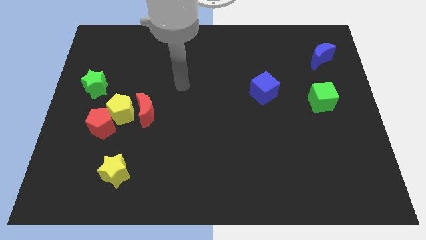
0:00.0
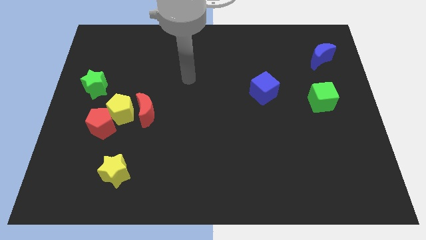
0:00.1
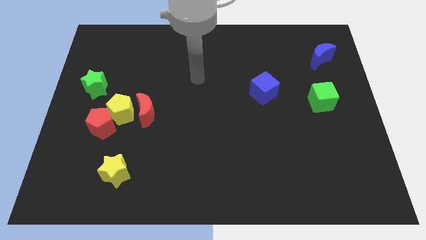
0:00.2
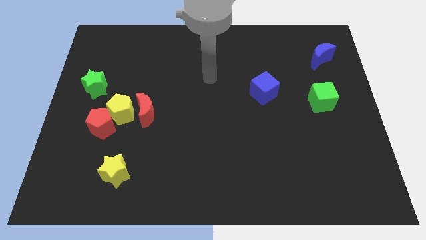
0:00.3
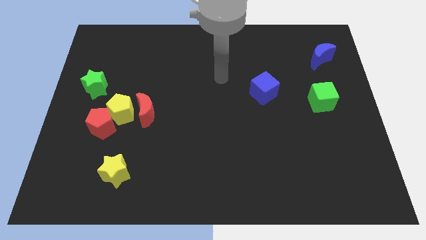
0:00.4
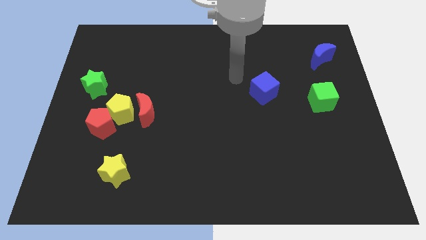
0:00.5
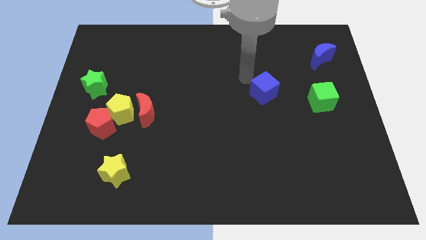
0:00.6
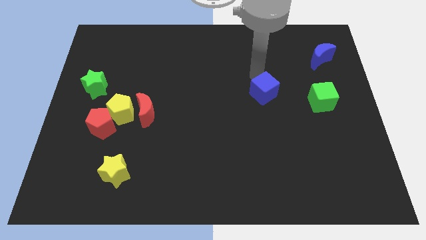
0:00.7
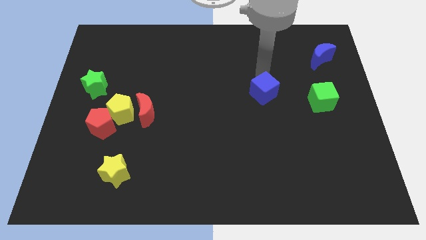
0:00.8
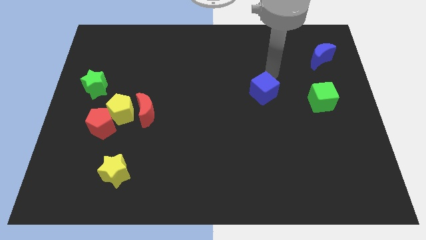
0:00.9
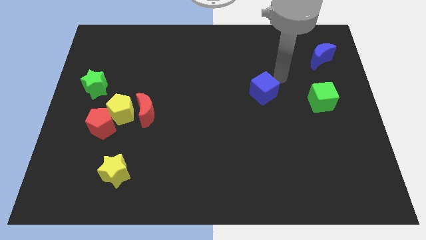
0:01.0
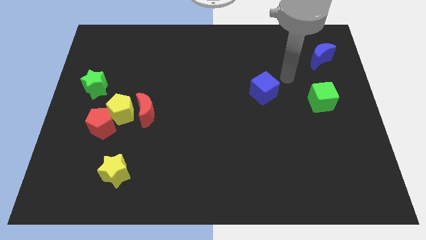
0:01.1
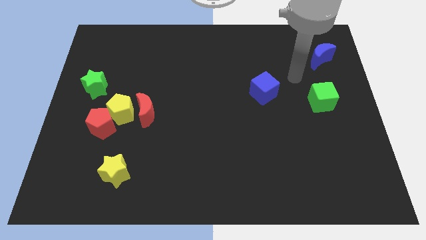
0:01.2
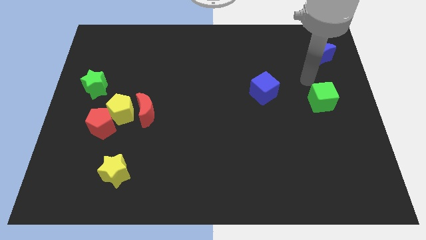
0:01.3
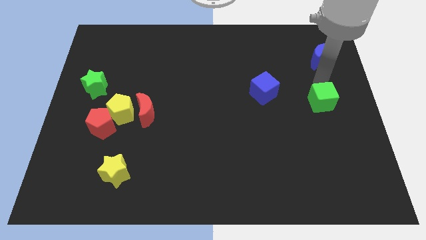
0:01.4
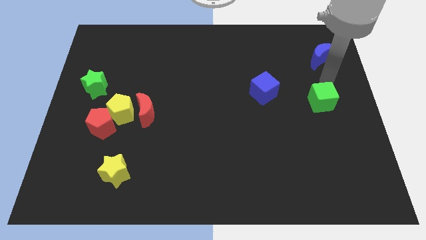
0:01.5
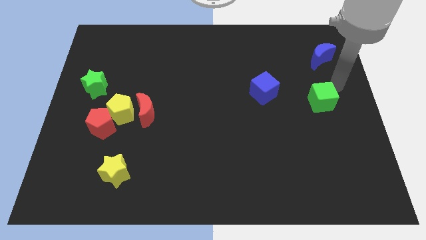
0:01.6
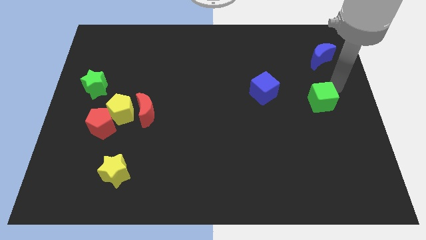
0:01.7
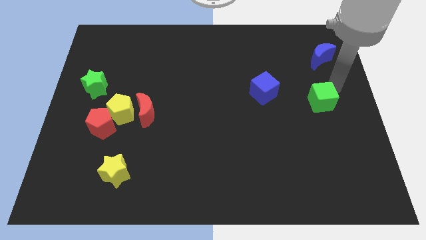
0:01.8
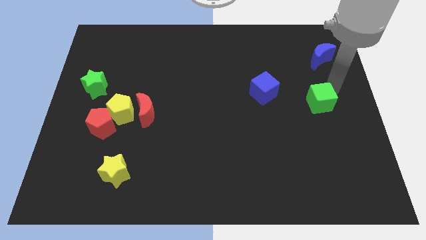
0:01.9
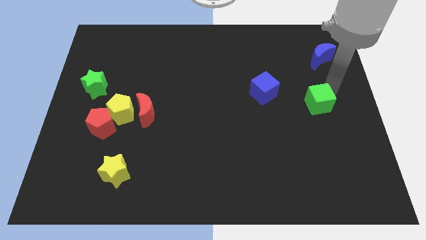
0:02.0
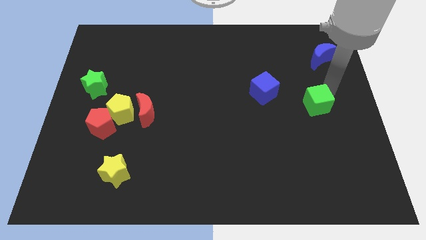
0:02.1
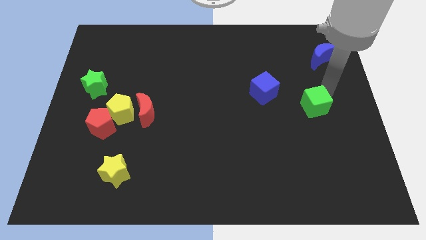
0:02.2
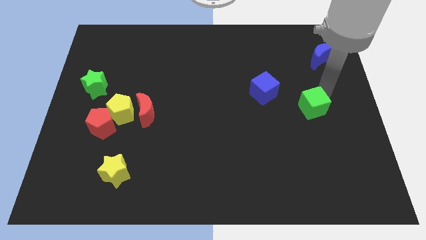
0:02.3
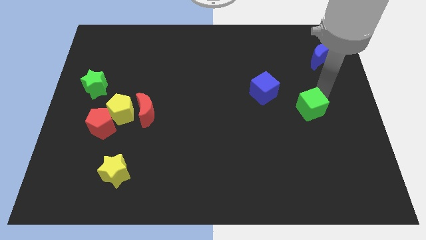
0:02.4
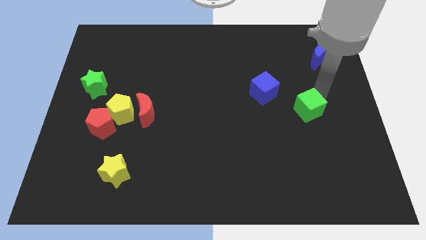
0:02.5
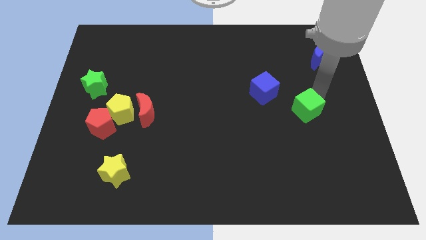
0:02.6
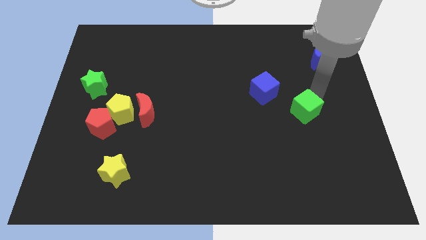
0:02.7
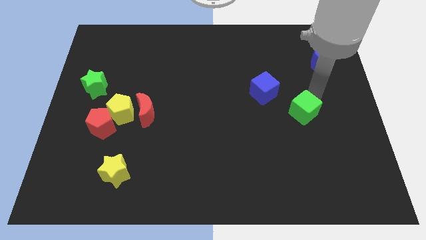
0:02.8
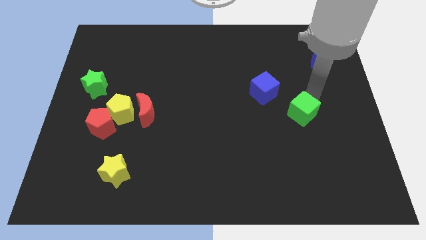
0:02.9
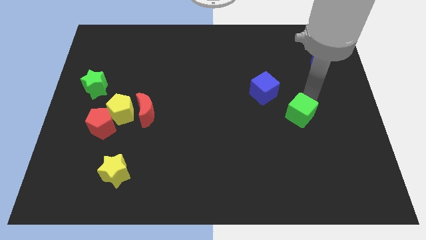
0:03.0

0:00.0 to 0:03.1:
slightly push the green cube downwards and left

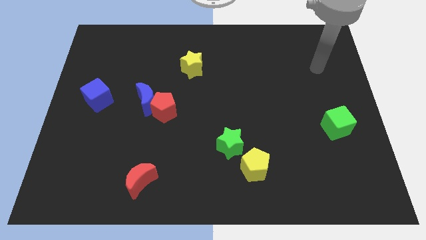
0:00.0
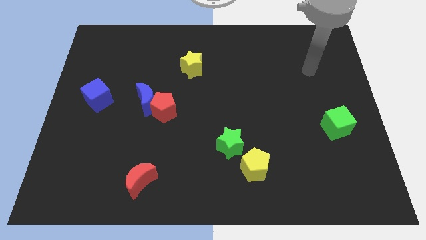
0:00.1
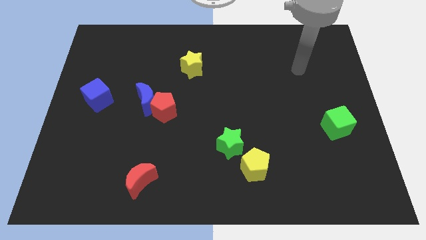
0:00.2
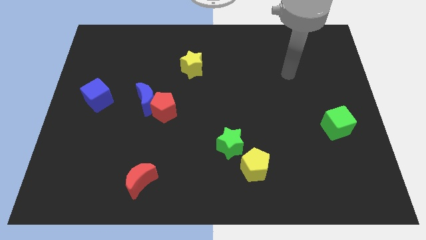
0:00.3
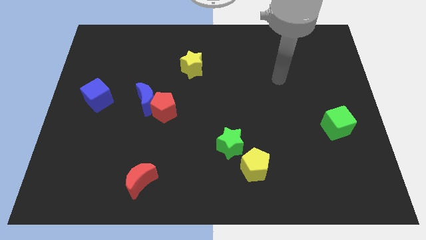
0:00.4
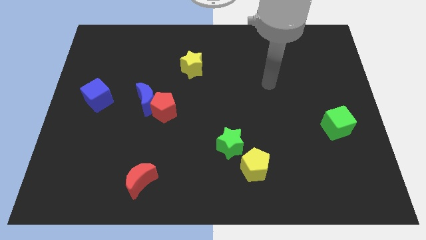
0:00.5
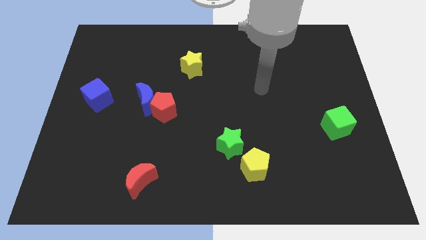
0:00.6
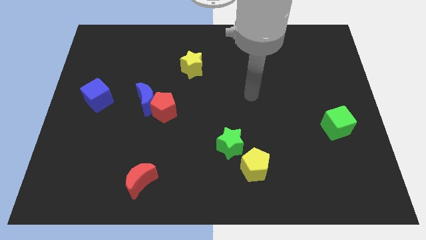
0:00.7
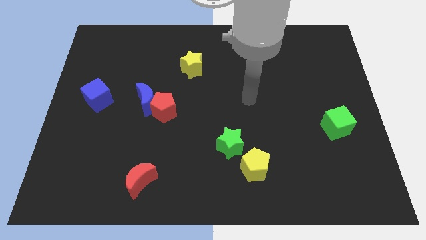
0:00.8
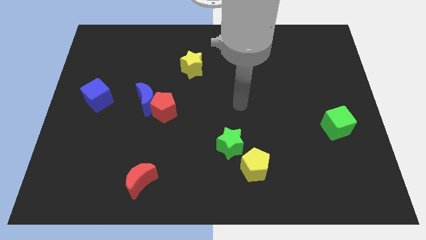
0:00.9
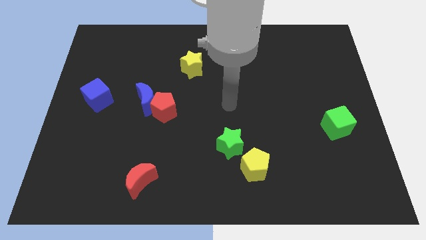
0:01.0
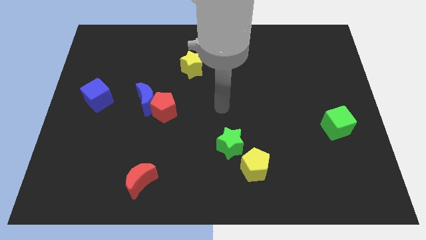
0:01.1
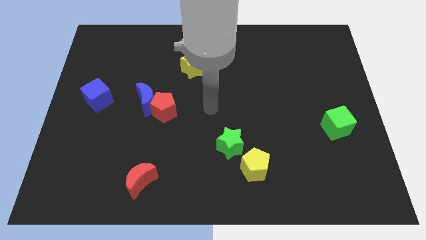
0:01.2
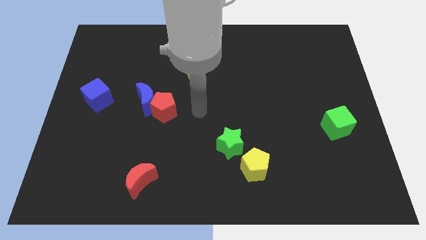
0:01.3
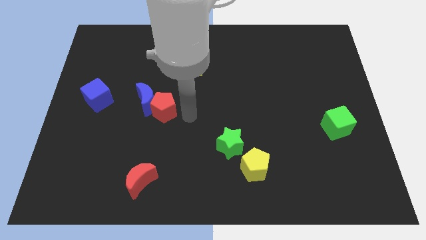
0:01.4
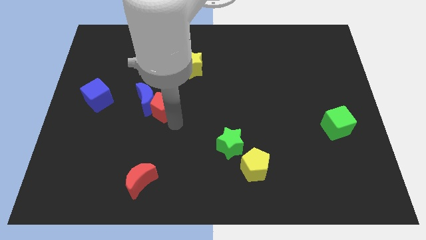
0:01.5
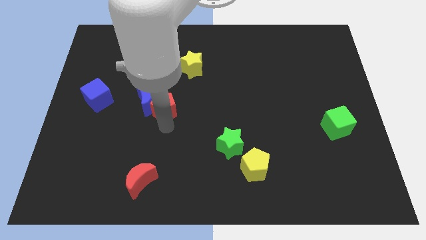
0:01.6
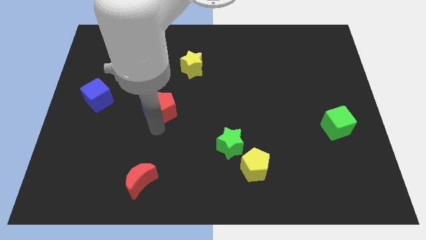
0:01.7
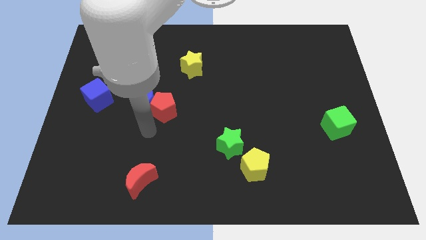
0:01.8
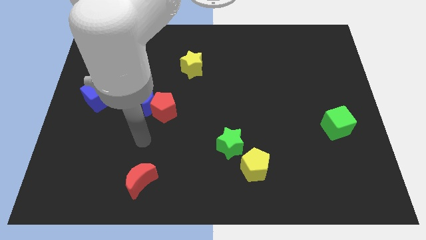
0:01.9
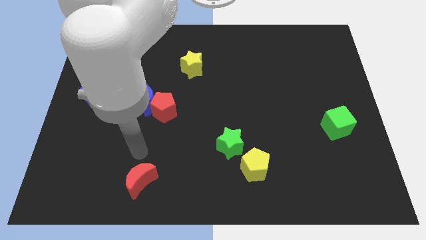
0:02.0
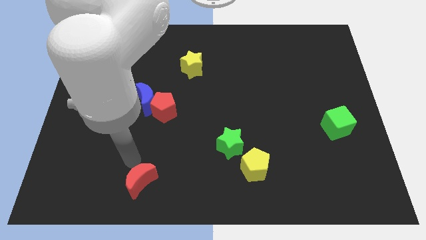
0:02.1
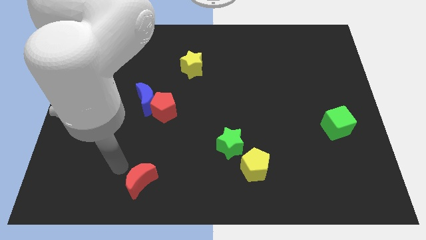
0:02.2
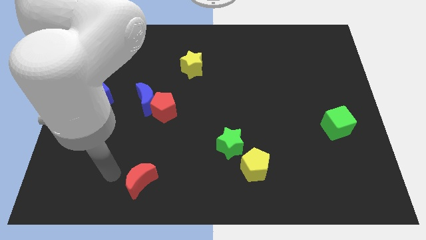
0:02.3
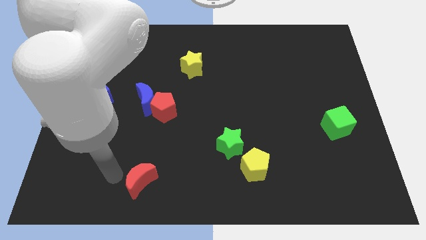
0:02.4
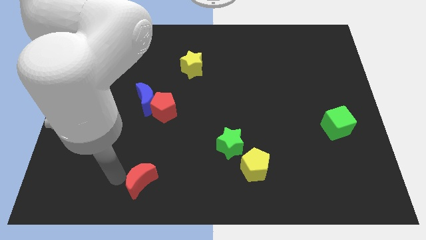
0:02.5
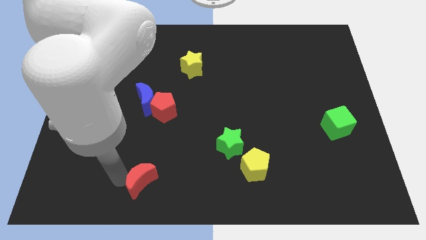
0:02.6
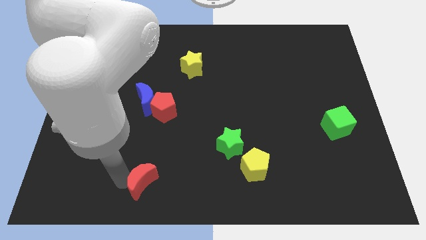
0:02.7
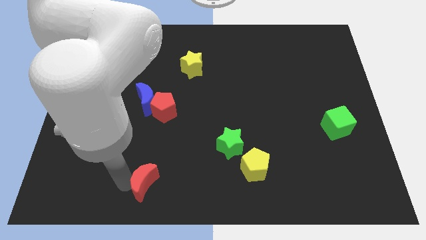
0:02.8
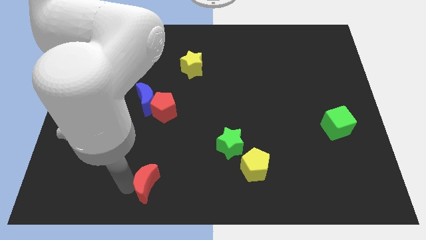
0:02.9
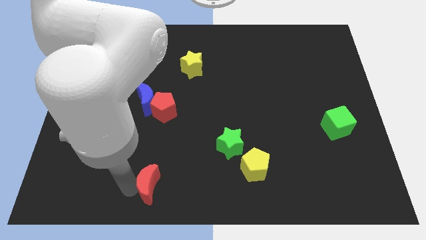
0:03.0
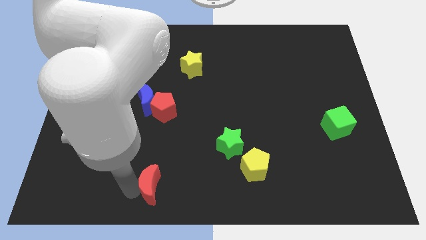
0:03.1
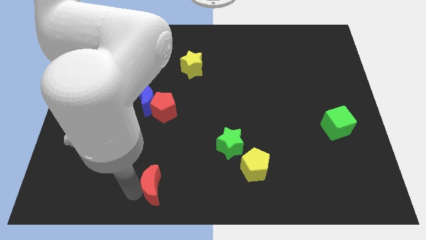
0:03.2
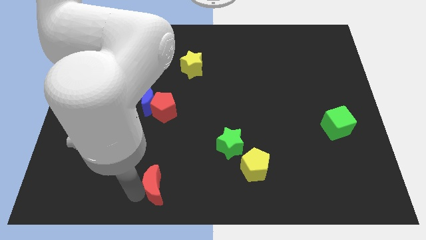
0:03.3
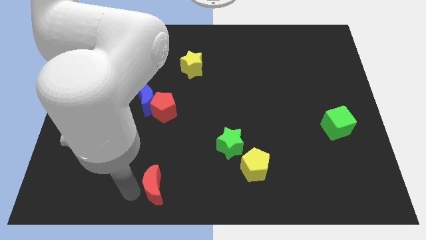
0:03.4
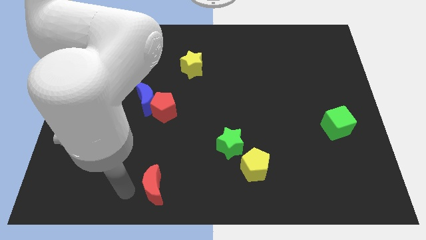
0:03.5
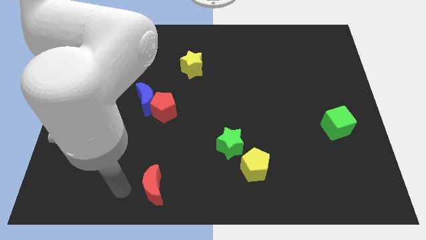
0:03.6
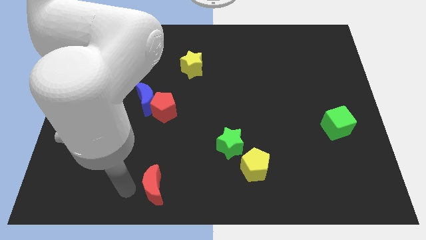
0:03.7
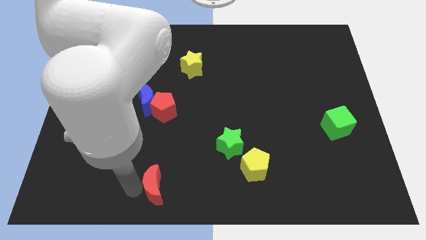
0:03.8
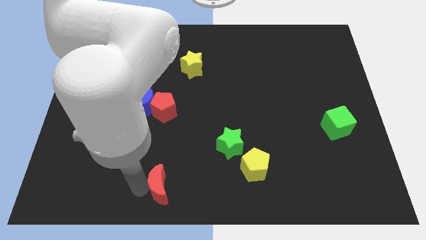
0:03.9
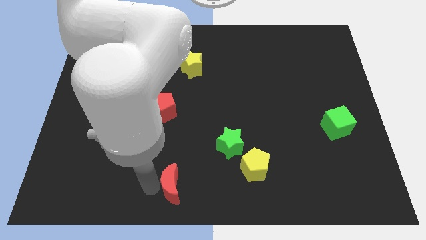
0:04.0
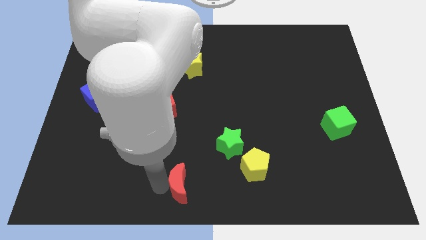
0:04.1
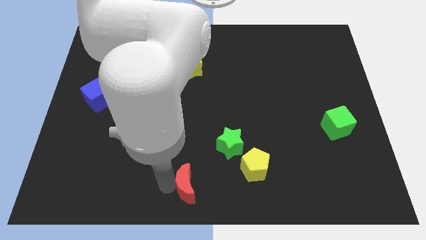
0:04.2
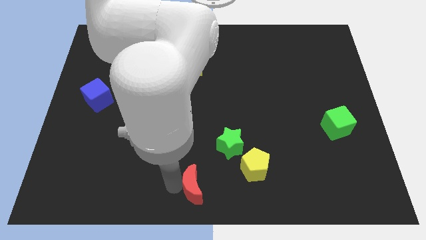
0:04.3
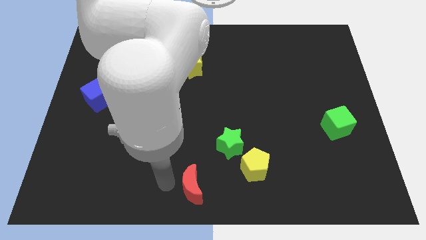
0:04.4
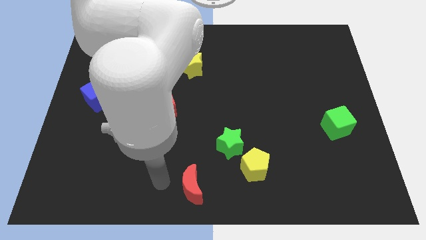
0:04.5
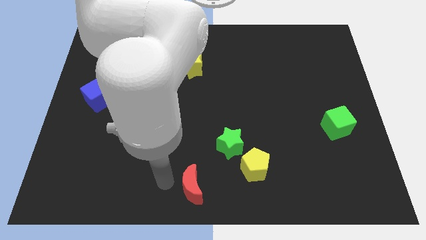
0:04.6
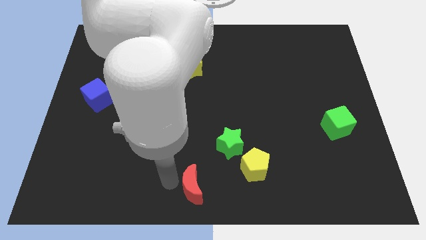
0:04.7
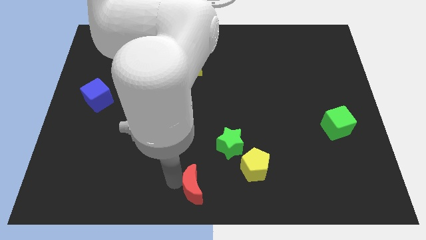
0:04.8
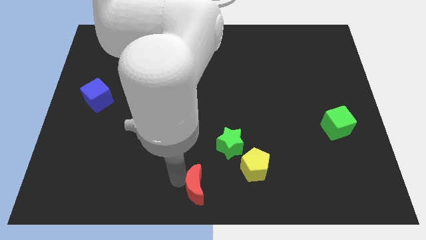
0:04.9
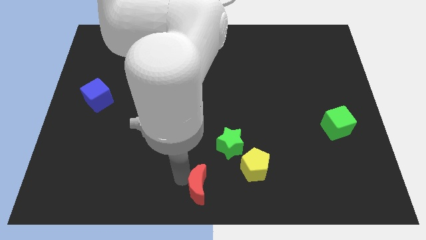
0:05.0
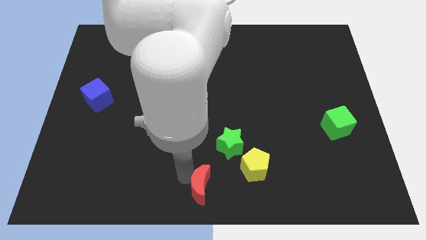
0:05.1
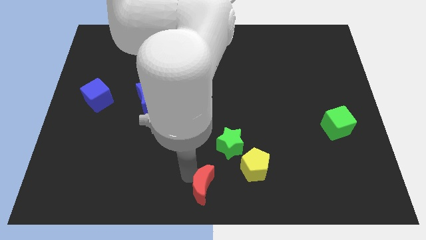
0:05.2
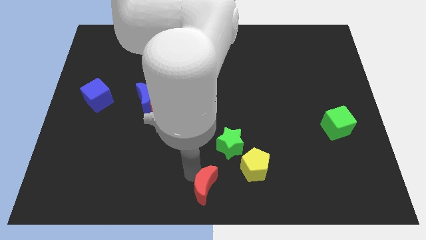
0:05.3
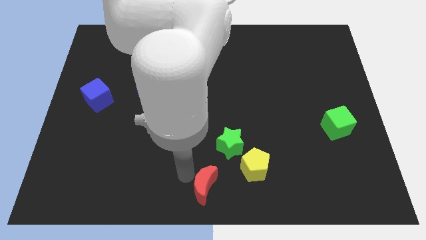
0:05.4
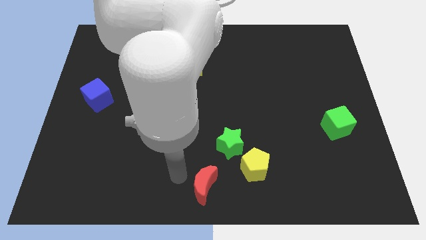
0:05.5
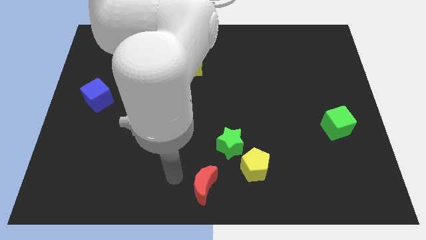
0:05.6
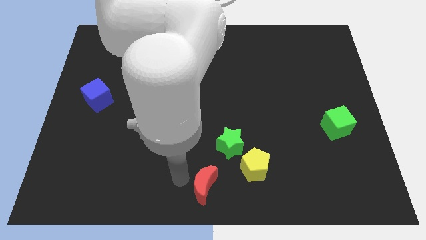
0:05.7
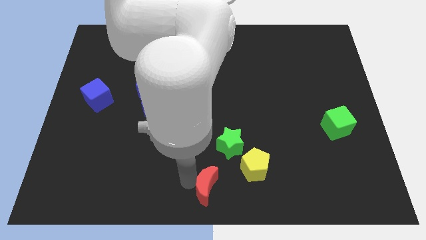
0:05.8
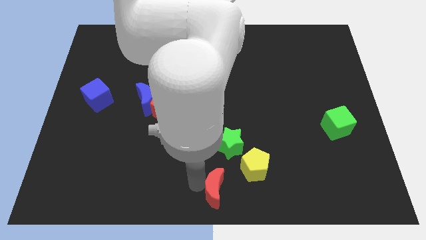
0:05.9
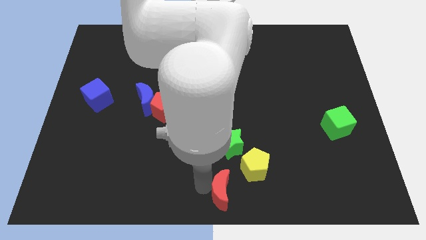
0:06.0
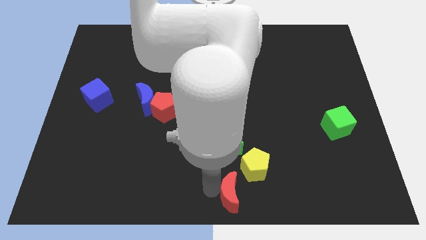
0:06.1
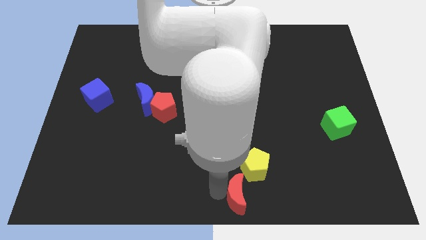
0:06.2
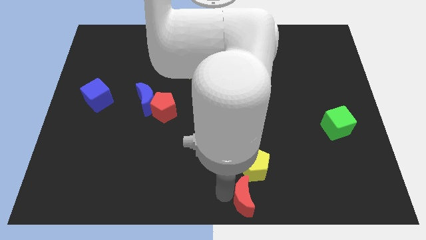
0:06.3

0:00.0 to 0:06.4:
move the red moon to the right
